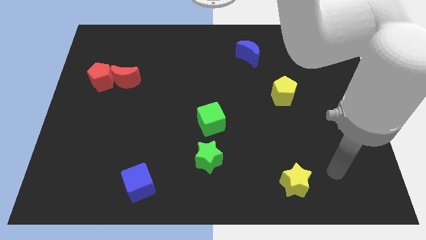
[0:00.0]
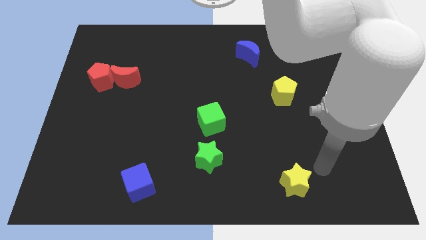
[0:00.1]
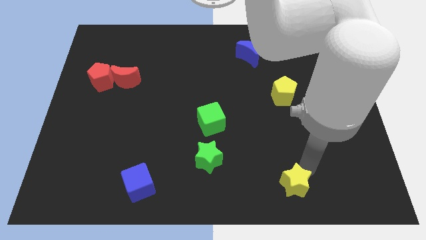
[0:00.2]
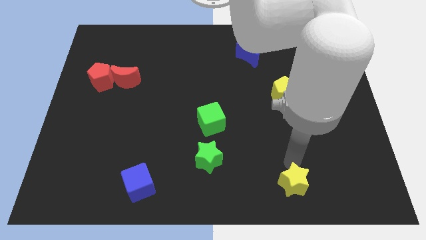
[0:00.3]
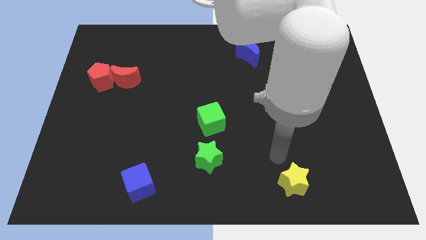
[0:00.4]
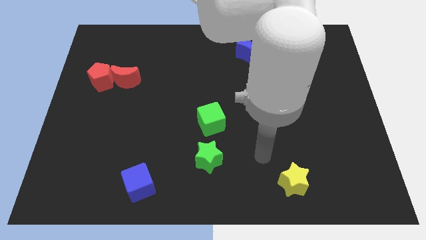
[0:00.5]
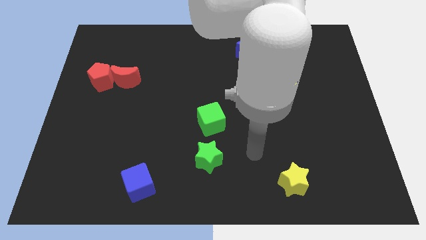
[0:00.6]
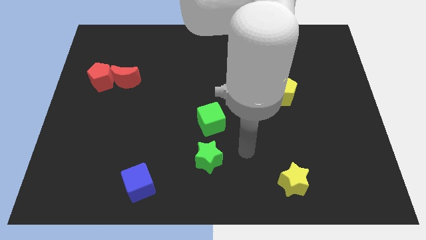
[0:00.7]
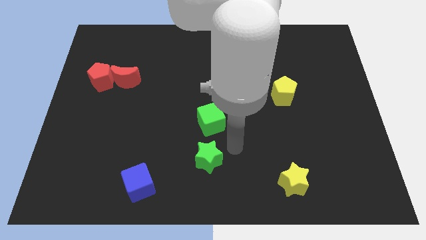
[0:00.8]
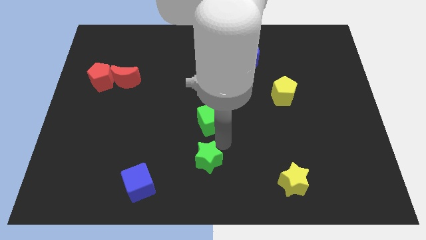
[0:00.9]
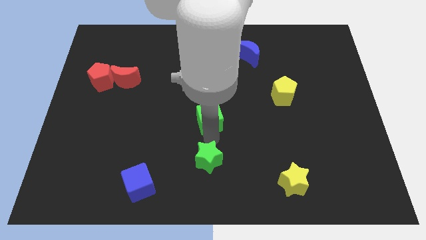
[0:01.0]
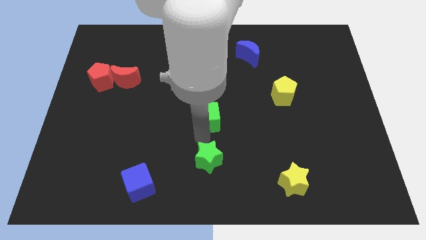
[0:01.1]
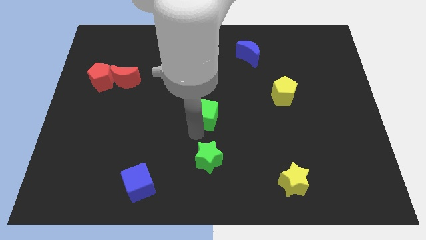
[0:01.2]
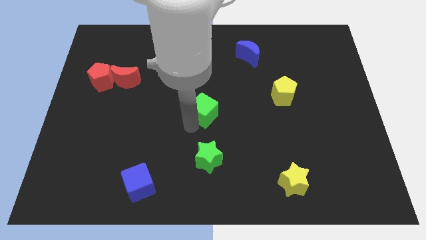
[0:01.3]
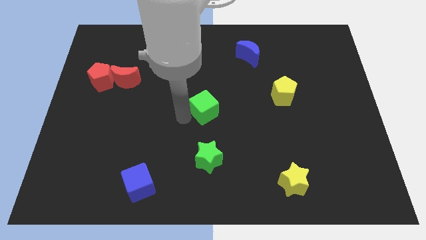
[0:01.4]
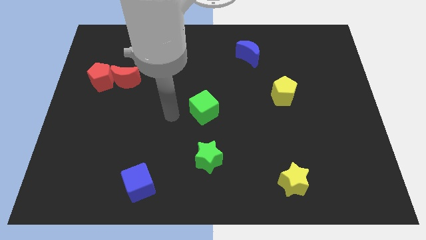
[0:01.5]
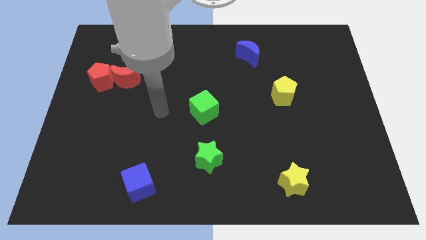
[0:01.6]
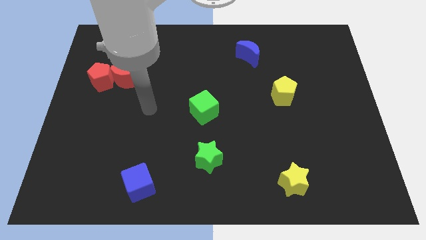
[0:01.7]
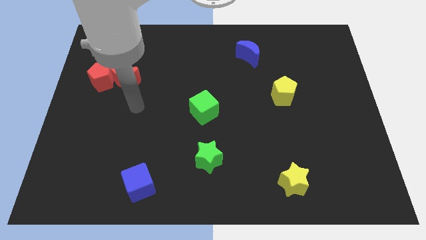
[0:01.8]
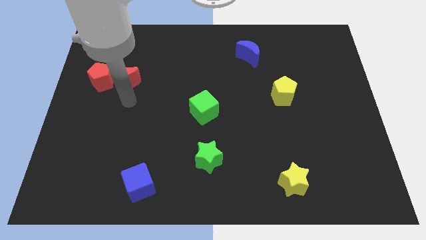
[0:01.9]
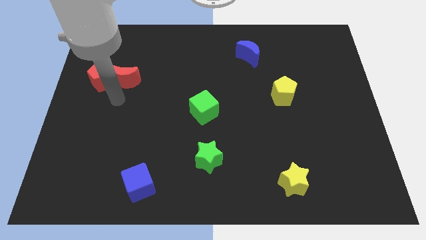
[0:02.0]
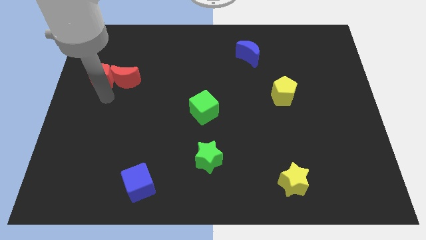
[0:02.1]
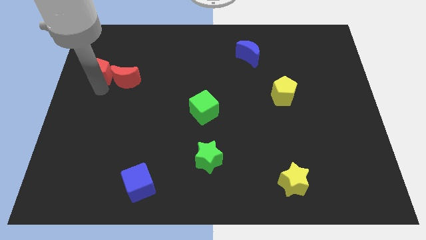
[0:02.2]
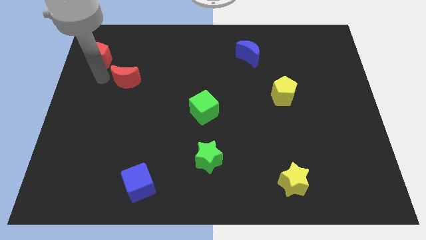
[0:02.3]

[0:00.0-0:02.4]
pull the red moon apart from the red pentagon

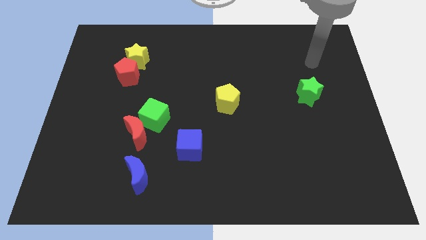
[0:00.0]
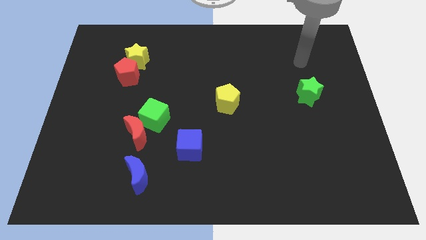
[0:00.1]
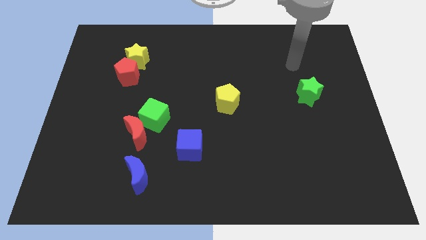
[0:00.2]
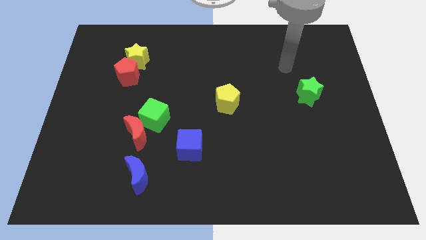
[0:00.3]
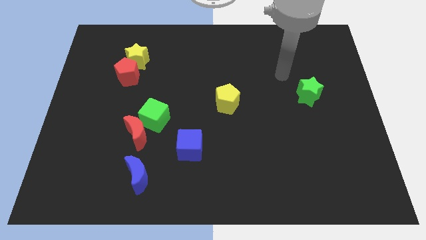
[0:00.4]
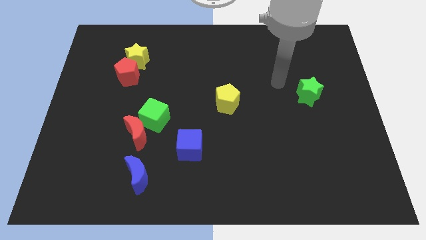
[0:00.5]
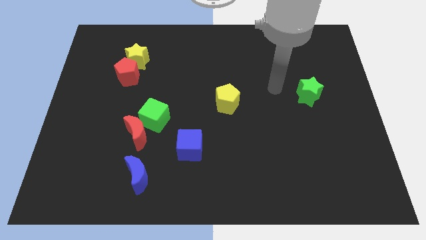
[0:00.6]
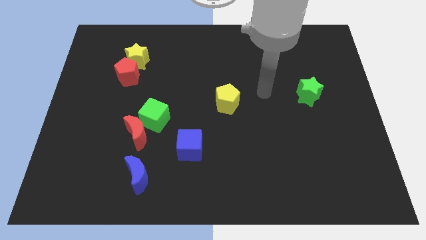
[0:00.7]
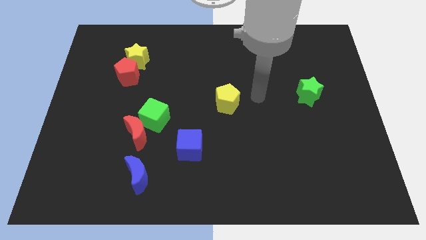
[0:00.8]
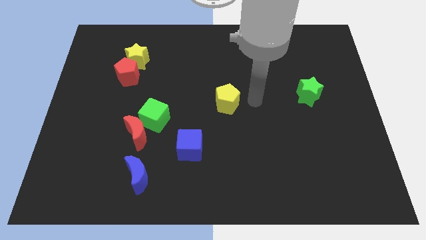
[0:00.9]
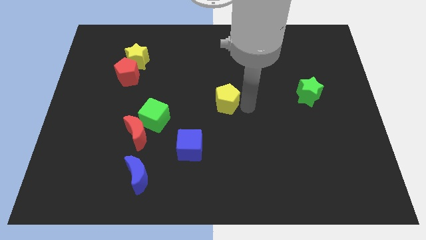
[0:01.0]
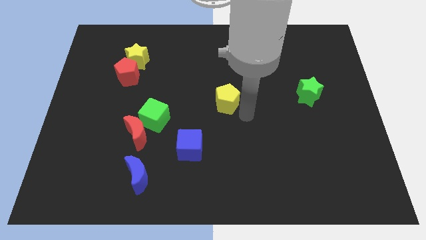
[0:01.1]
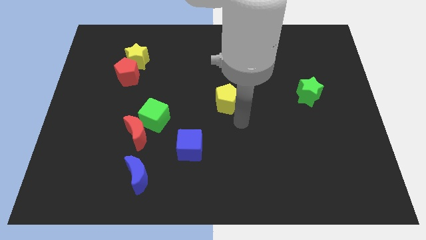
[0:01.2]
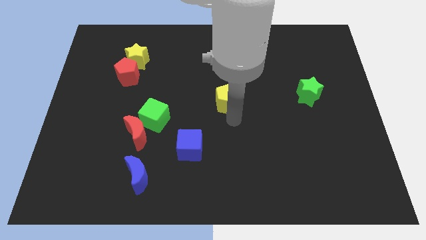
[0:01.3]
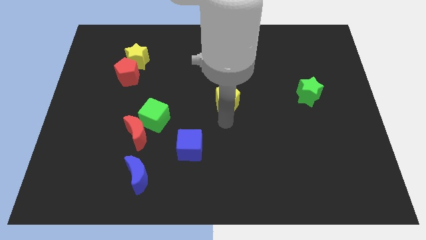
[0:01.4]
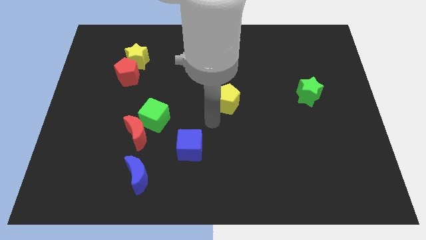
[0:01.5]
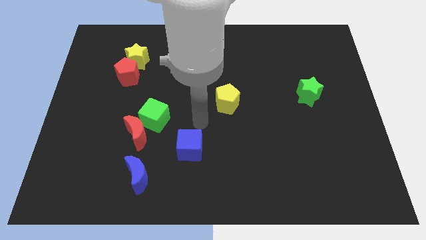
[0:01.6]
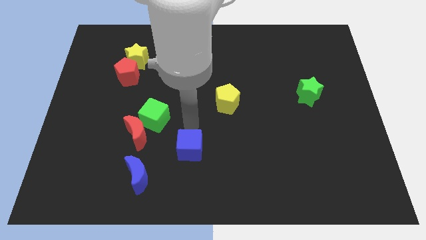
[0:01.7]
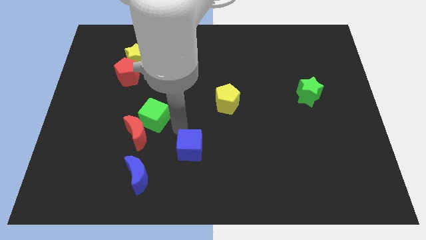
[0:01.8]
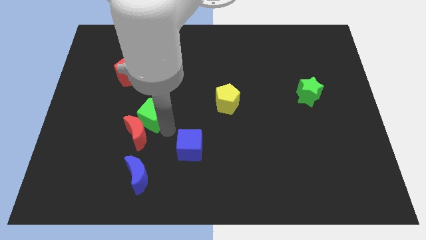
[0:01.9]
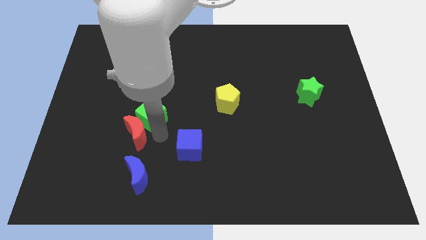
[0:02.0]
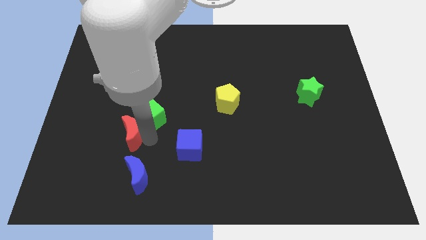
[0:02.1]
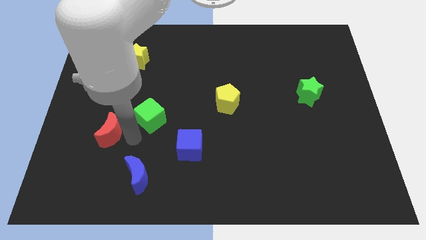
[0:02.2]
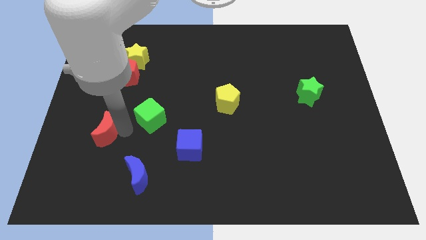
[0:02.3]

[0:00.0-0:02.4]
move the green cube away from the red moon

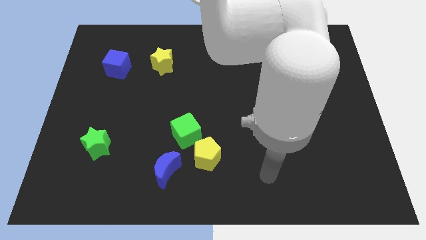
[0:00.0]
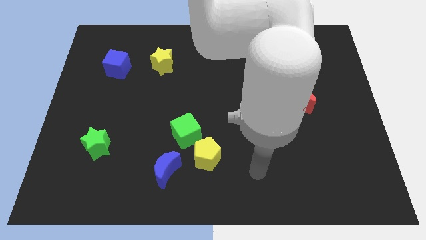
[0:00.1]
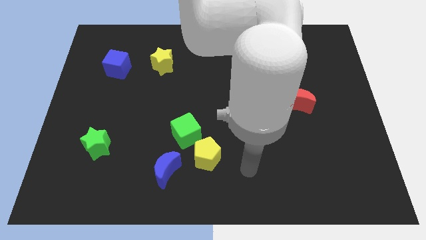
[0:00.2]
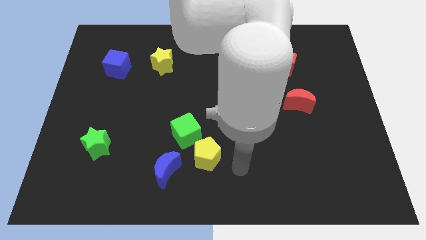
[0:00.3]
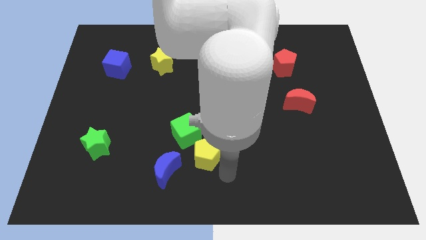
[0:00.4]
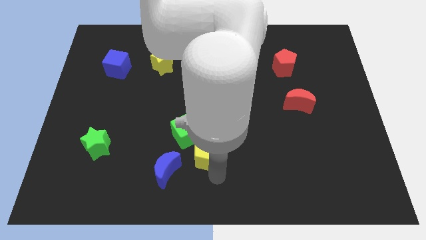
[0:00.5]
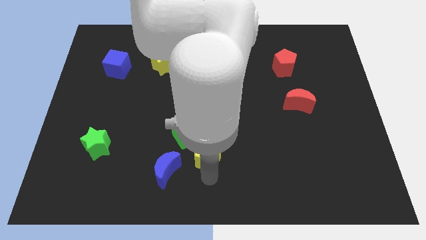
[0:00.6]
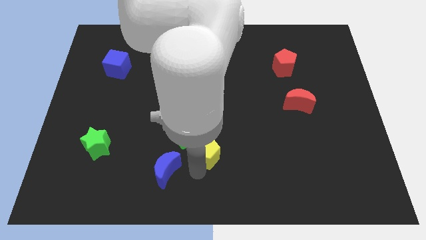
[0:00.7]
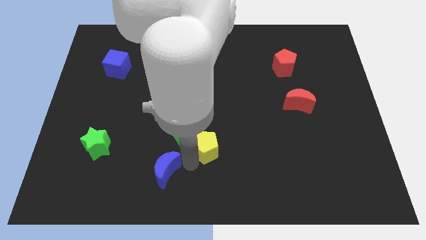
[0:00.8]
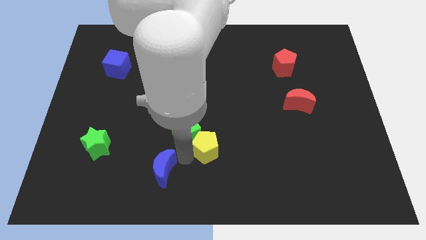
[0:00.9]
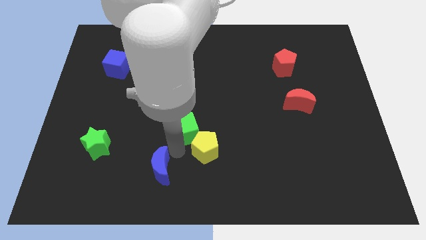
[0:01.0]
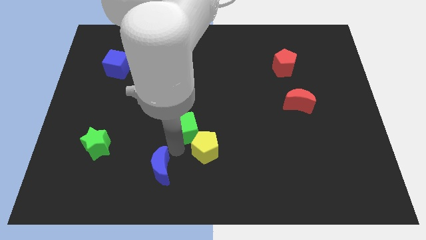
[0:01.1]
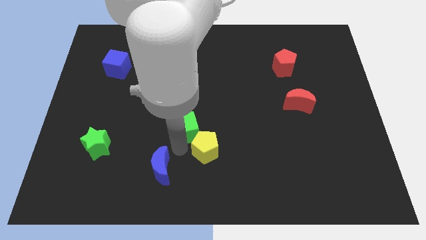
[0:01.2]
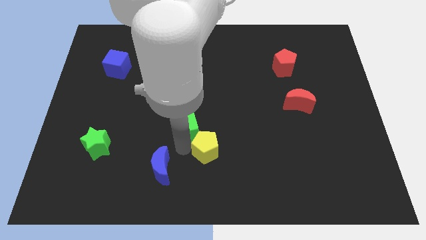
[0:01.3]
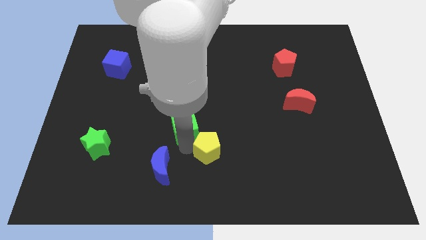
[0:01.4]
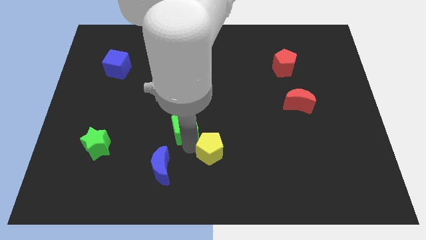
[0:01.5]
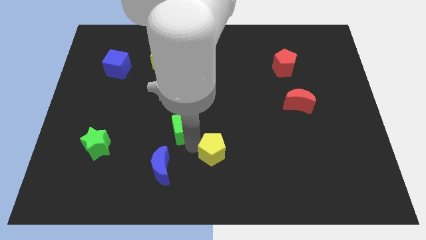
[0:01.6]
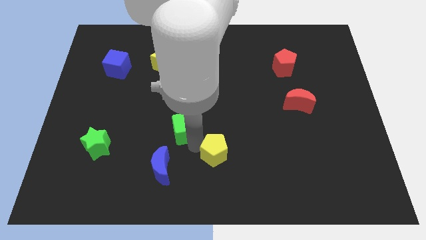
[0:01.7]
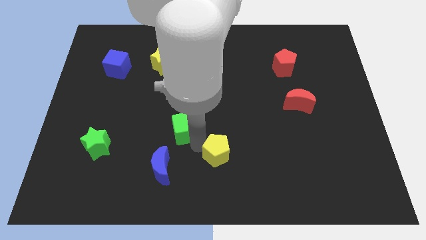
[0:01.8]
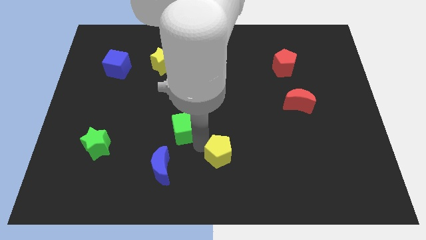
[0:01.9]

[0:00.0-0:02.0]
move the yellow pentagon away from the green cube and blue moon

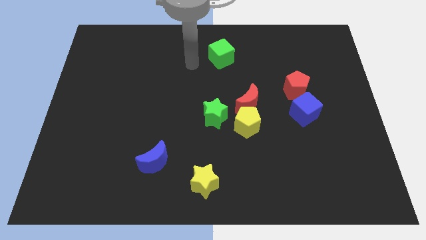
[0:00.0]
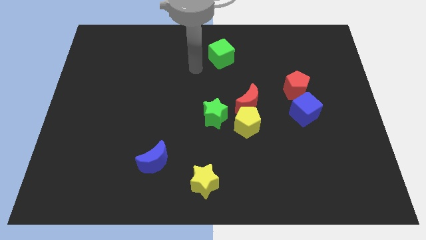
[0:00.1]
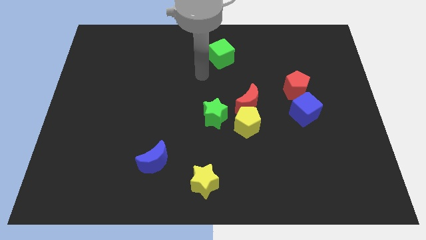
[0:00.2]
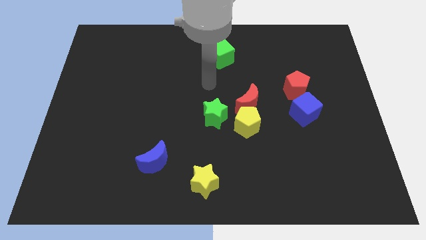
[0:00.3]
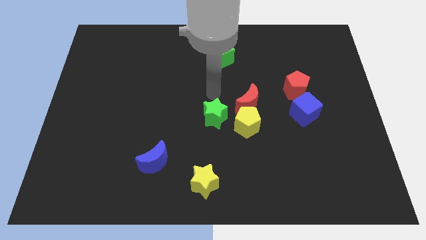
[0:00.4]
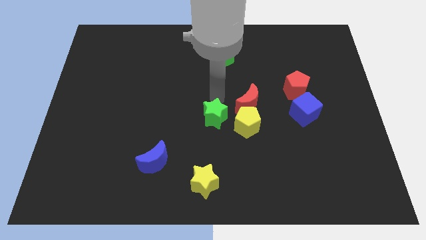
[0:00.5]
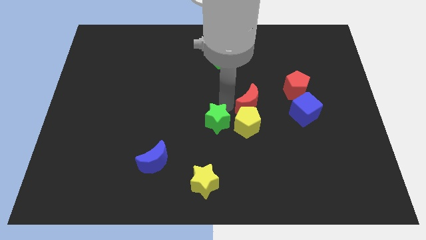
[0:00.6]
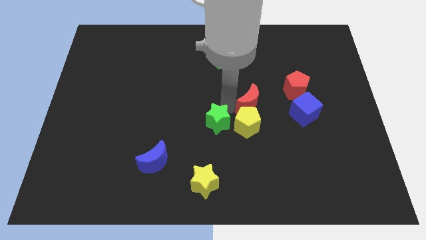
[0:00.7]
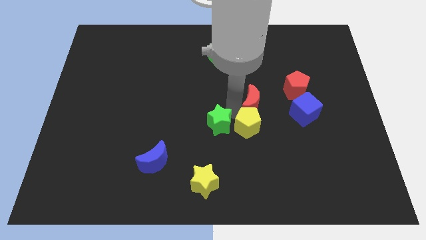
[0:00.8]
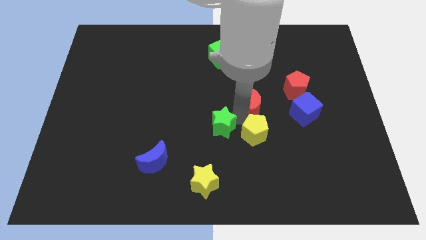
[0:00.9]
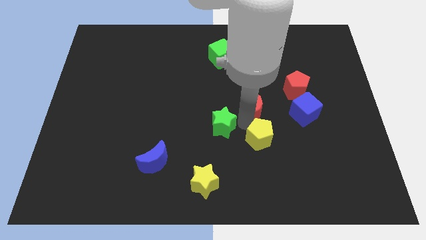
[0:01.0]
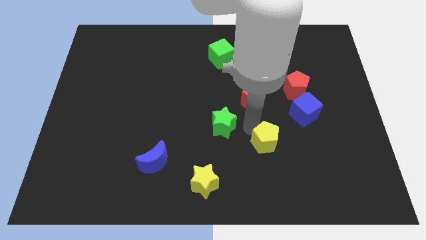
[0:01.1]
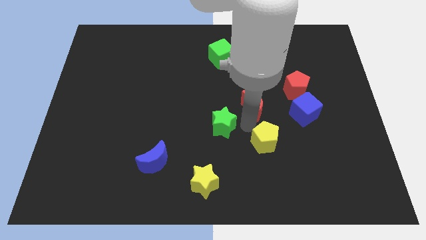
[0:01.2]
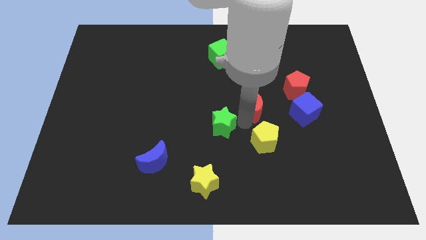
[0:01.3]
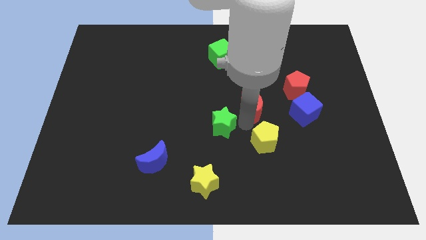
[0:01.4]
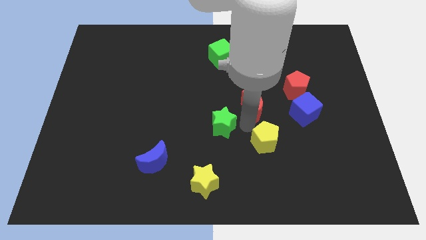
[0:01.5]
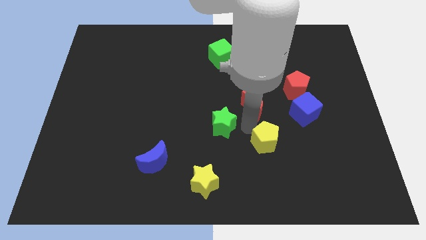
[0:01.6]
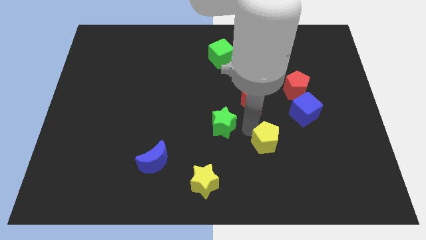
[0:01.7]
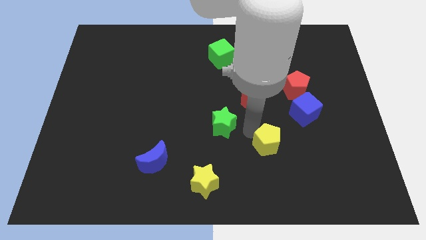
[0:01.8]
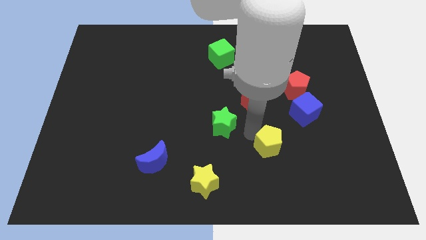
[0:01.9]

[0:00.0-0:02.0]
move the yellow pentagon away from the red moon and green star

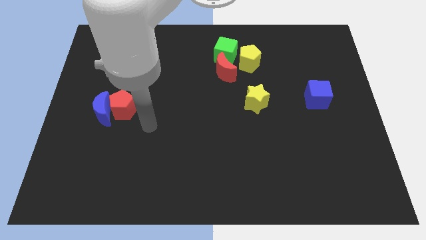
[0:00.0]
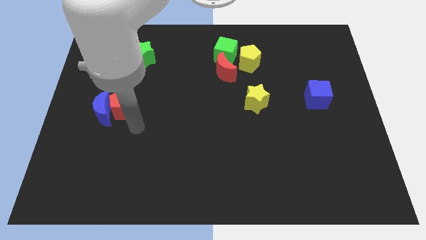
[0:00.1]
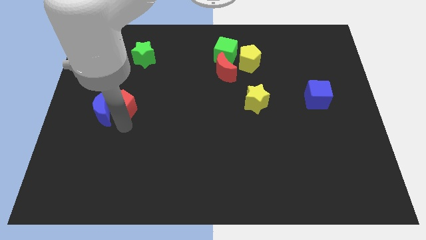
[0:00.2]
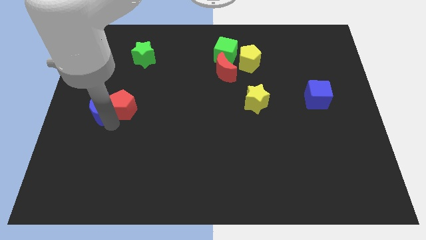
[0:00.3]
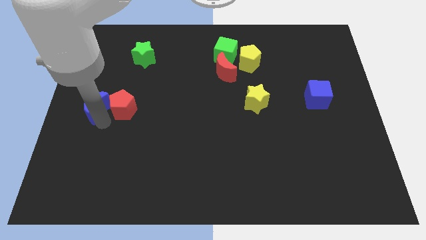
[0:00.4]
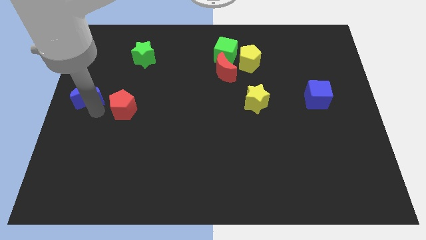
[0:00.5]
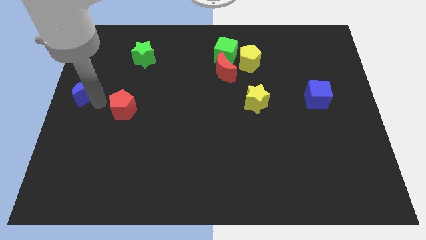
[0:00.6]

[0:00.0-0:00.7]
move the red pentagon away from the blue moon
